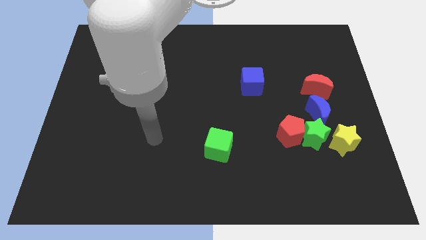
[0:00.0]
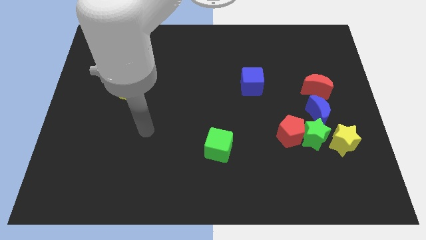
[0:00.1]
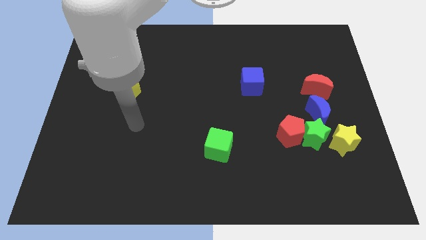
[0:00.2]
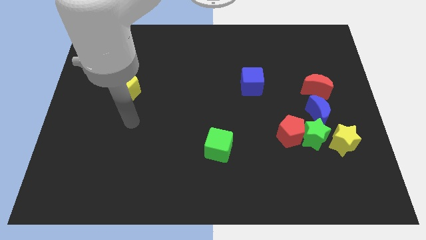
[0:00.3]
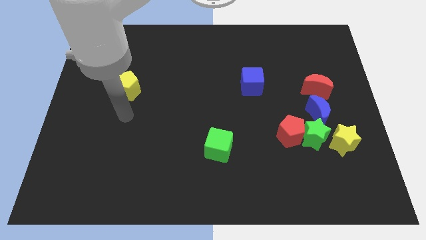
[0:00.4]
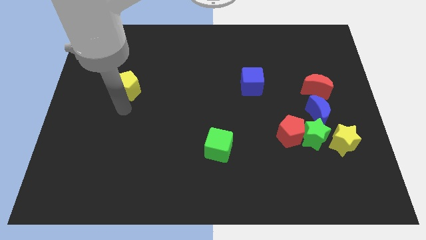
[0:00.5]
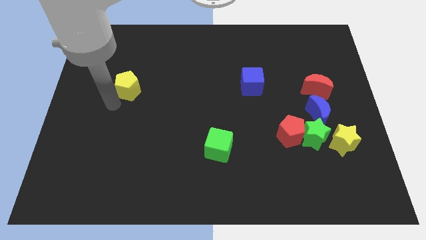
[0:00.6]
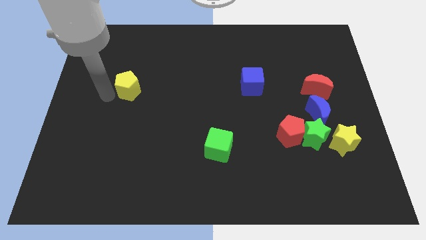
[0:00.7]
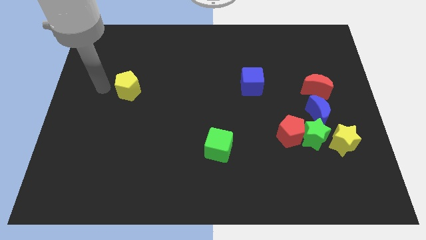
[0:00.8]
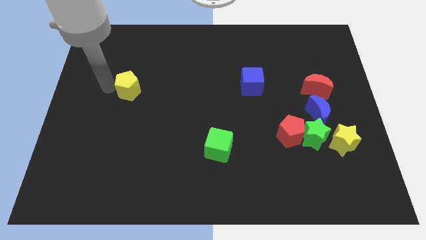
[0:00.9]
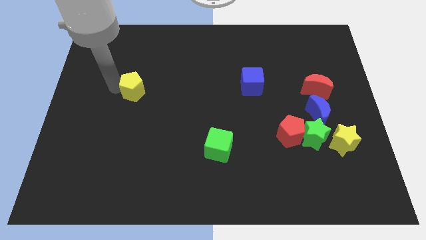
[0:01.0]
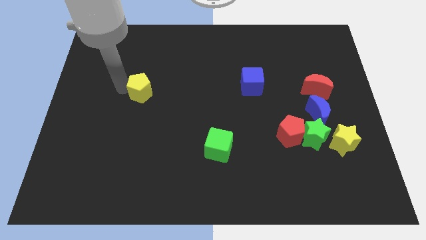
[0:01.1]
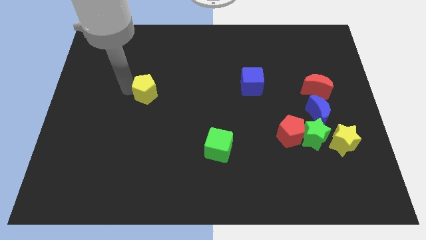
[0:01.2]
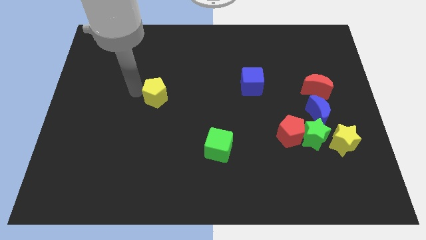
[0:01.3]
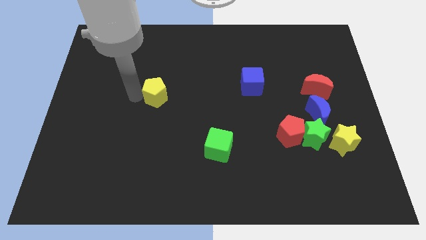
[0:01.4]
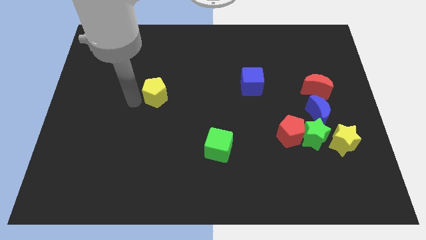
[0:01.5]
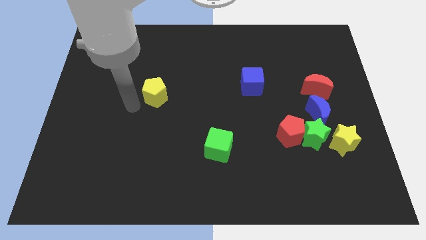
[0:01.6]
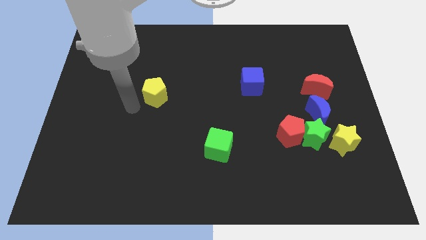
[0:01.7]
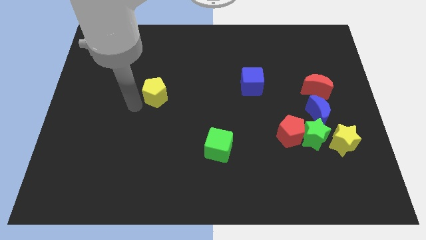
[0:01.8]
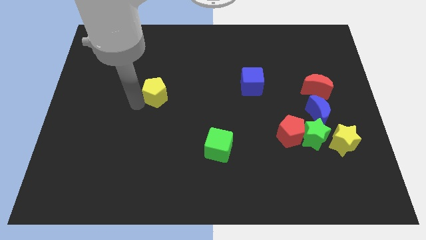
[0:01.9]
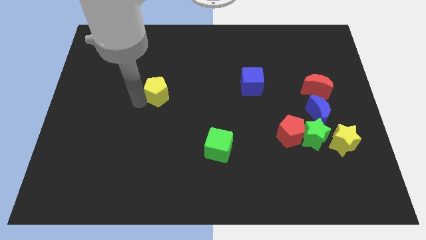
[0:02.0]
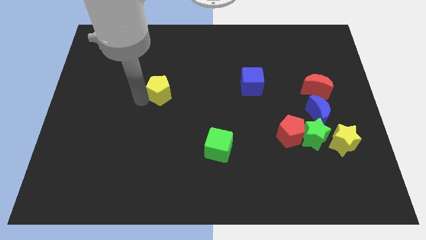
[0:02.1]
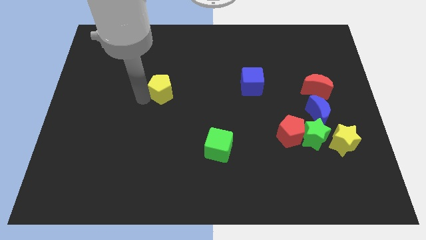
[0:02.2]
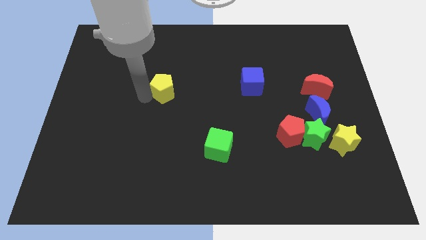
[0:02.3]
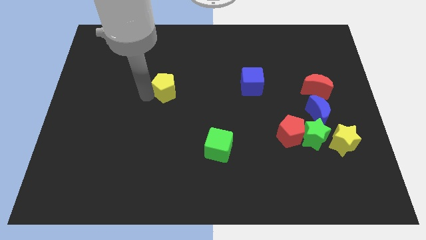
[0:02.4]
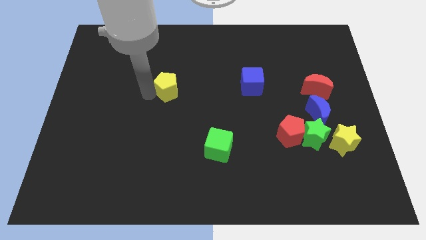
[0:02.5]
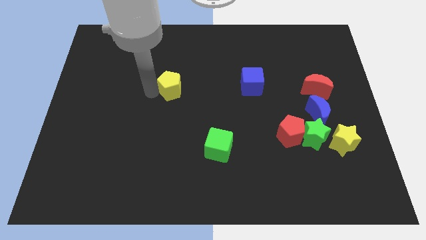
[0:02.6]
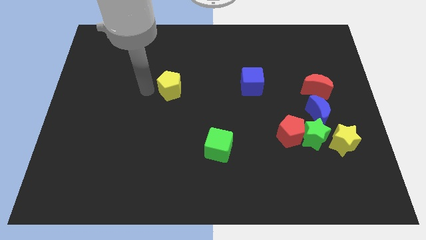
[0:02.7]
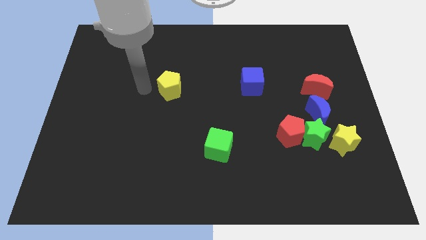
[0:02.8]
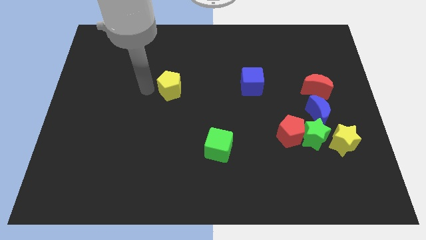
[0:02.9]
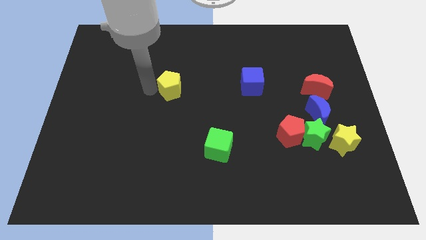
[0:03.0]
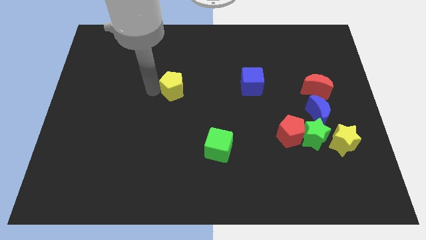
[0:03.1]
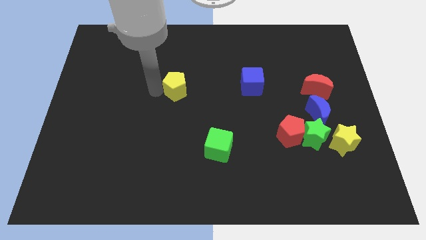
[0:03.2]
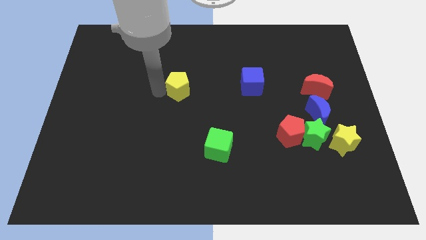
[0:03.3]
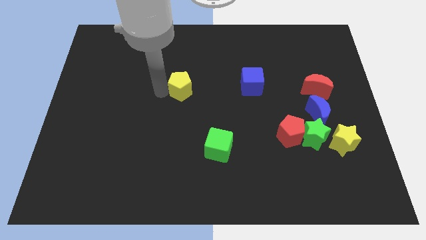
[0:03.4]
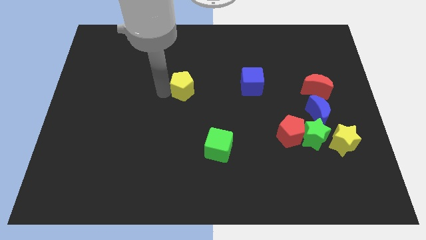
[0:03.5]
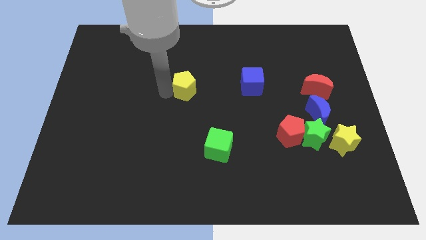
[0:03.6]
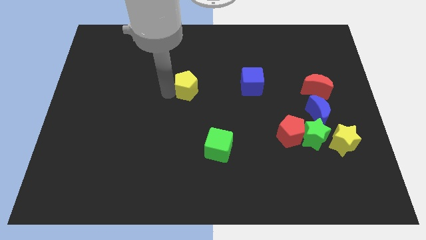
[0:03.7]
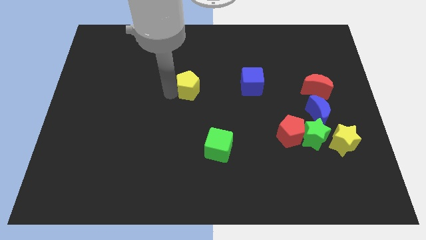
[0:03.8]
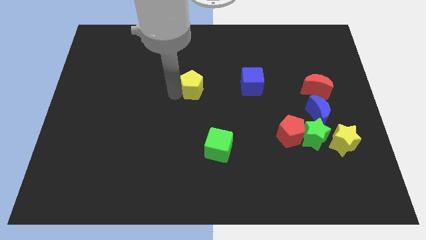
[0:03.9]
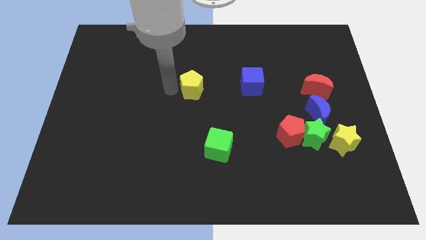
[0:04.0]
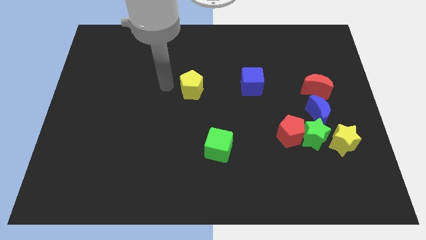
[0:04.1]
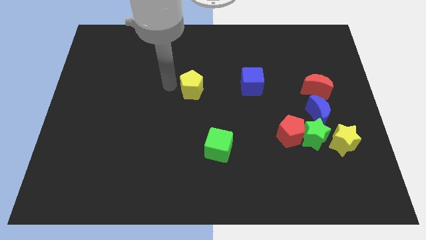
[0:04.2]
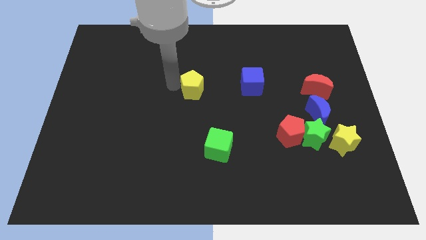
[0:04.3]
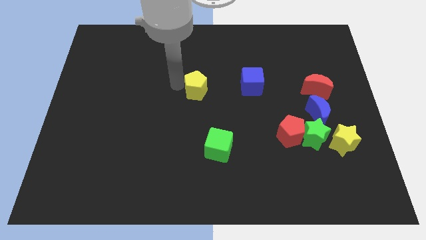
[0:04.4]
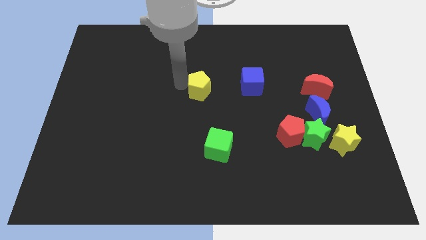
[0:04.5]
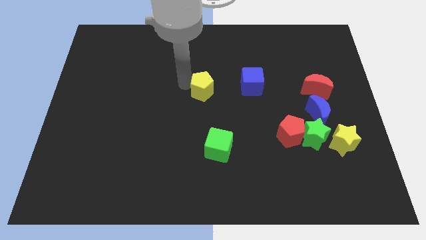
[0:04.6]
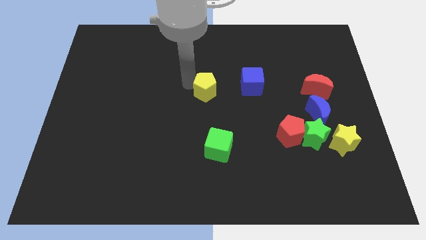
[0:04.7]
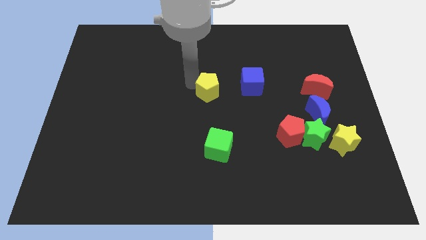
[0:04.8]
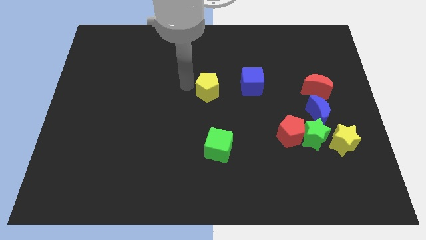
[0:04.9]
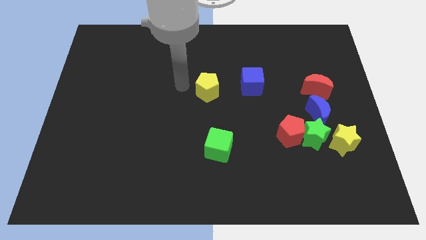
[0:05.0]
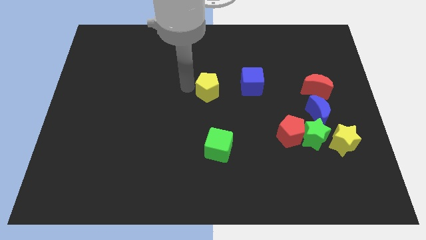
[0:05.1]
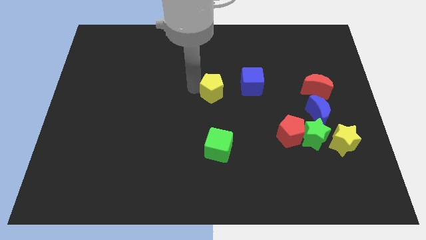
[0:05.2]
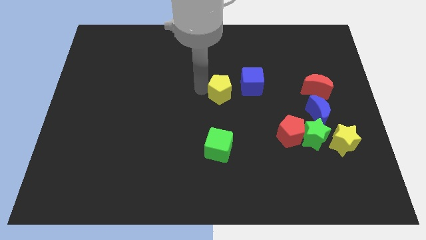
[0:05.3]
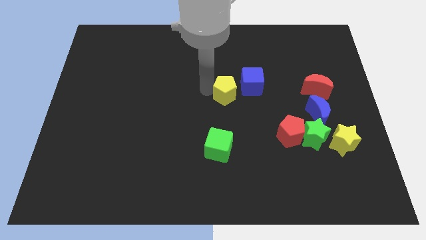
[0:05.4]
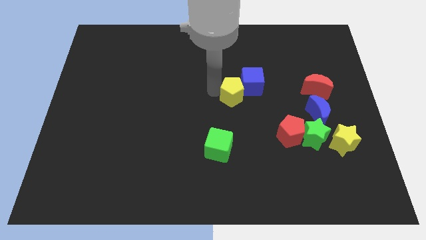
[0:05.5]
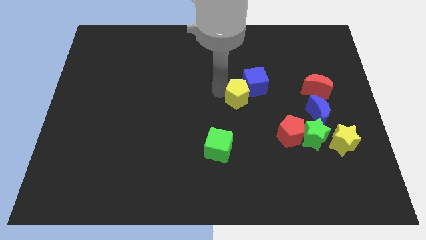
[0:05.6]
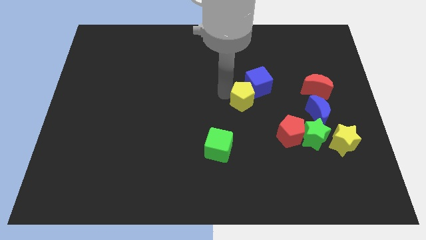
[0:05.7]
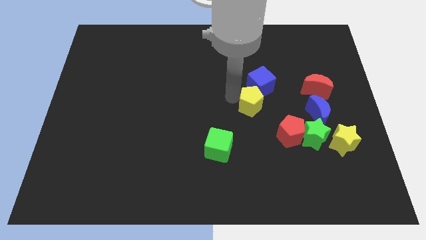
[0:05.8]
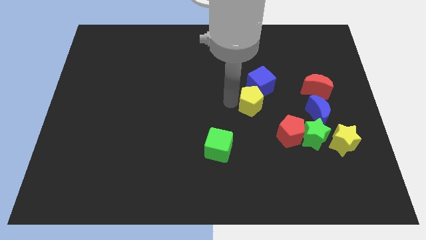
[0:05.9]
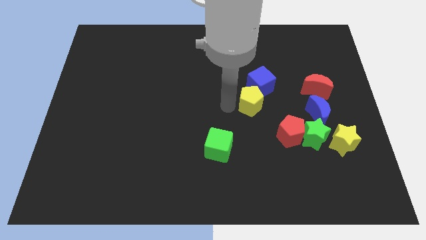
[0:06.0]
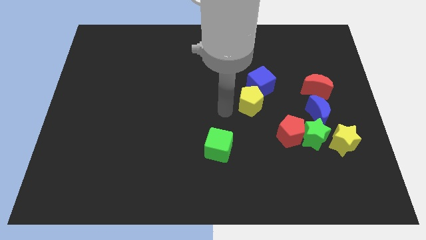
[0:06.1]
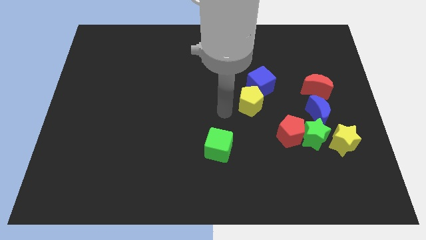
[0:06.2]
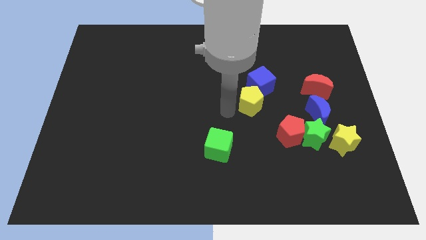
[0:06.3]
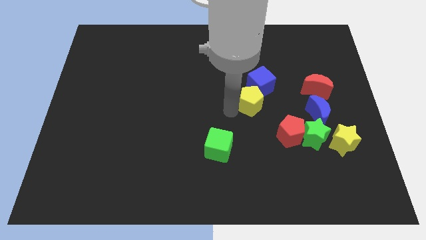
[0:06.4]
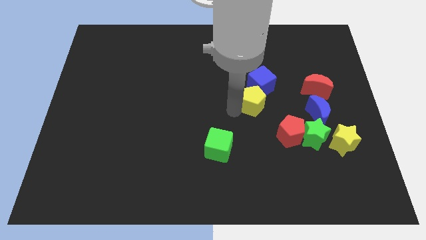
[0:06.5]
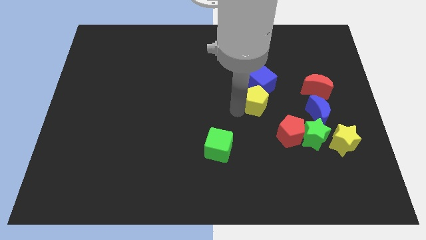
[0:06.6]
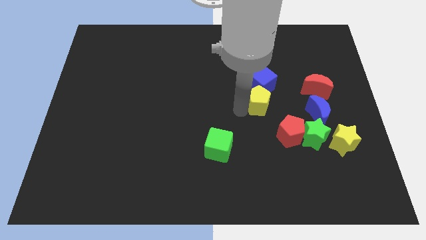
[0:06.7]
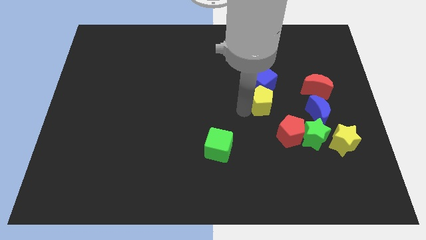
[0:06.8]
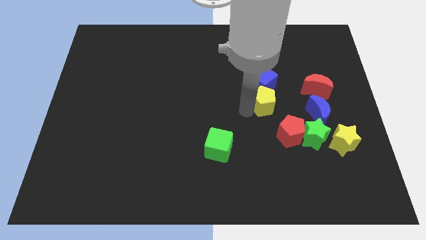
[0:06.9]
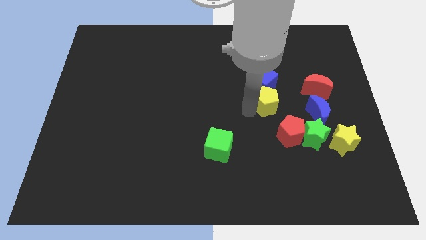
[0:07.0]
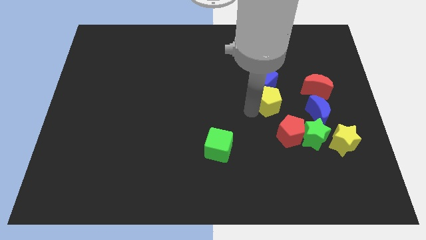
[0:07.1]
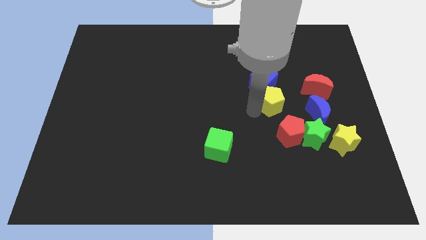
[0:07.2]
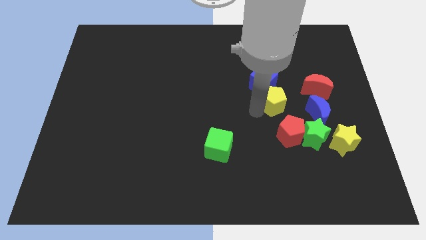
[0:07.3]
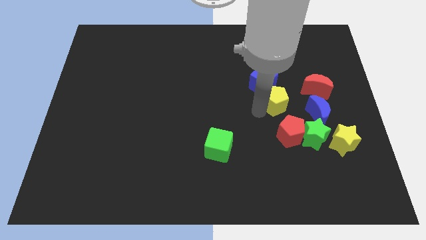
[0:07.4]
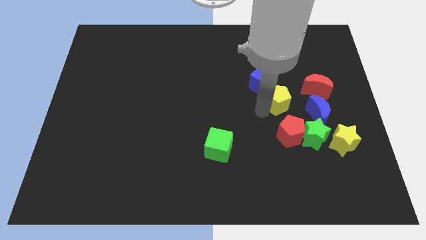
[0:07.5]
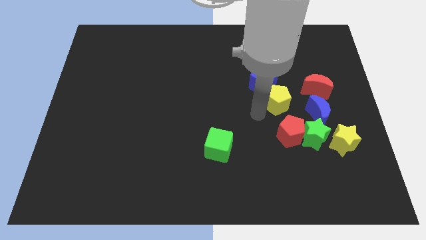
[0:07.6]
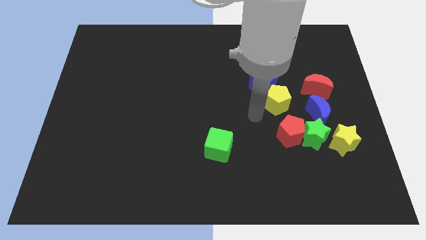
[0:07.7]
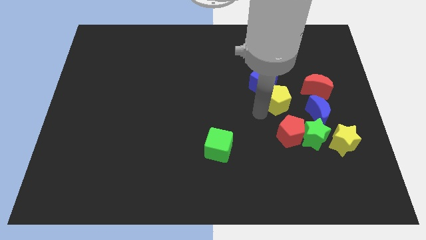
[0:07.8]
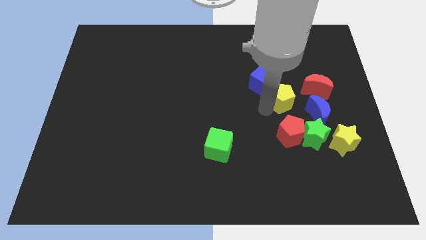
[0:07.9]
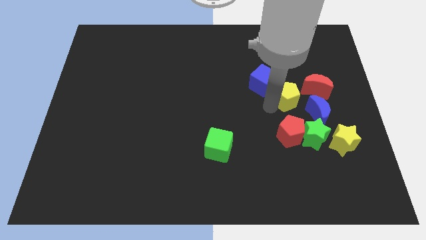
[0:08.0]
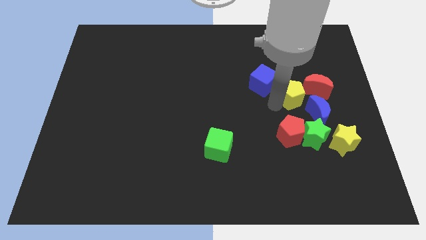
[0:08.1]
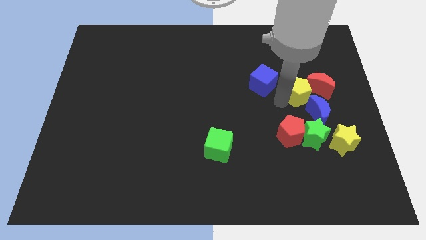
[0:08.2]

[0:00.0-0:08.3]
push the yellow pentagon next to the red moon
